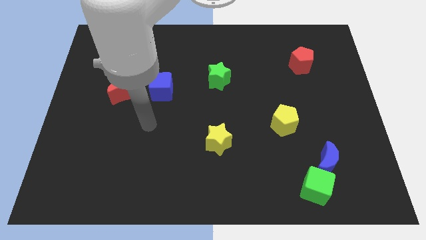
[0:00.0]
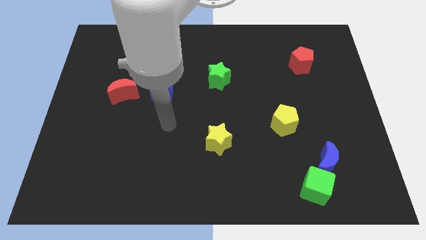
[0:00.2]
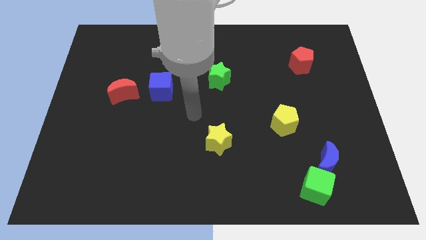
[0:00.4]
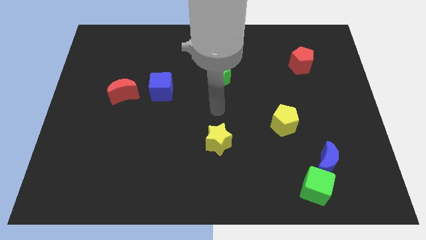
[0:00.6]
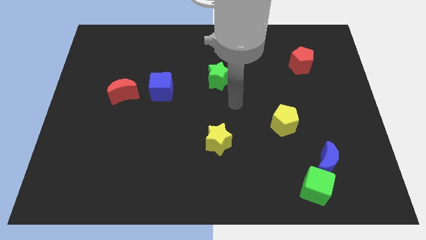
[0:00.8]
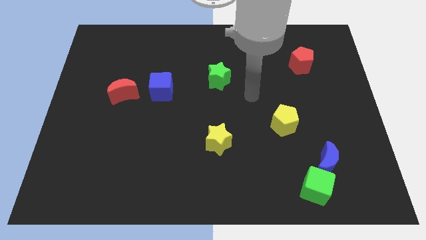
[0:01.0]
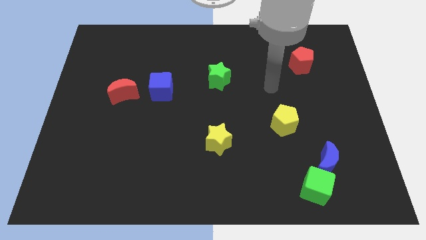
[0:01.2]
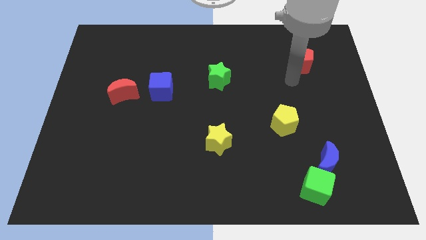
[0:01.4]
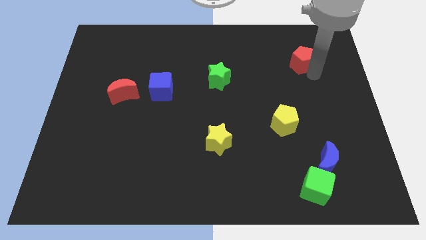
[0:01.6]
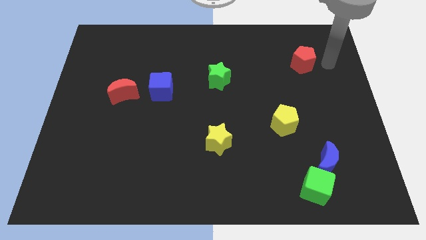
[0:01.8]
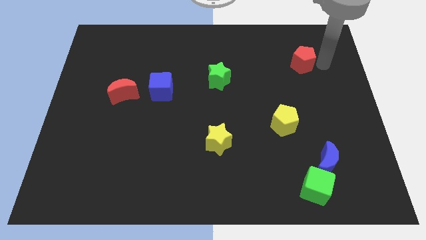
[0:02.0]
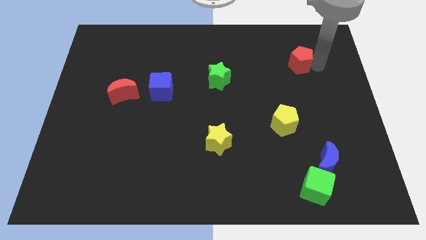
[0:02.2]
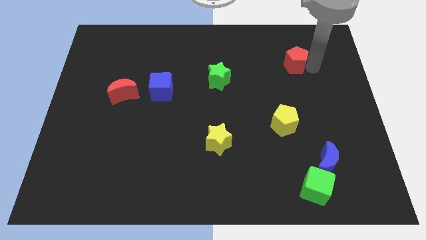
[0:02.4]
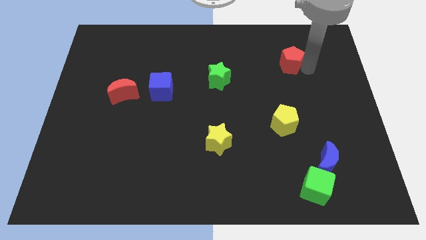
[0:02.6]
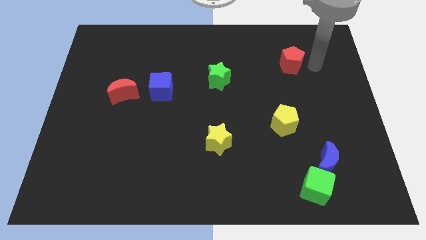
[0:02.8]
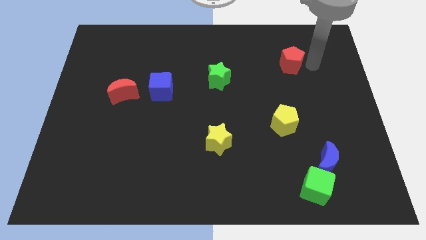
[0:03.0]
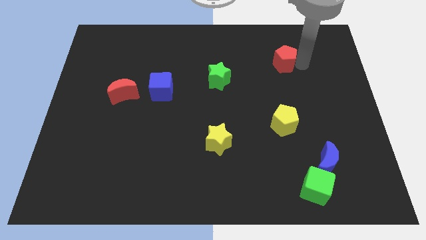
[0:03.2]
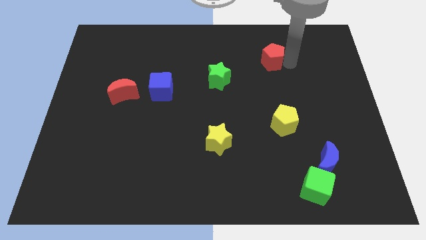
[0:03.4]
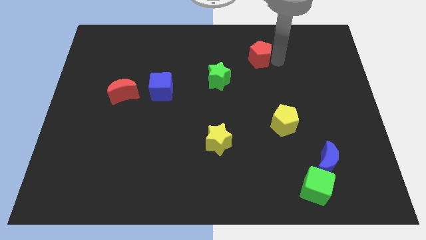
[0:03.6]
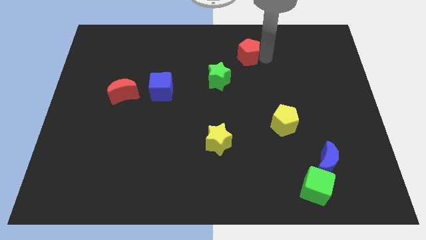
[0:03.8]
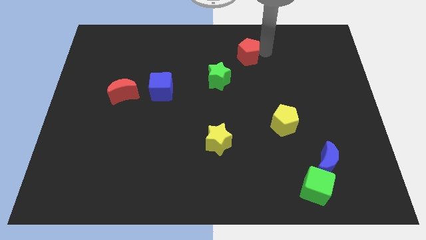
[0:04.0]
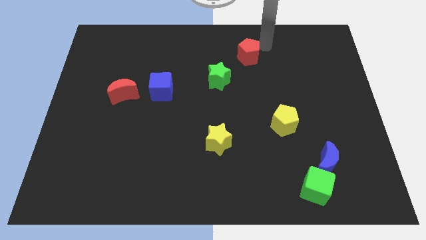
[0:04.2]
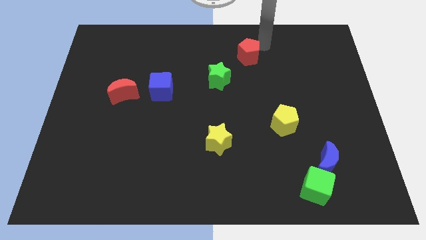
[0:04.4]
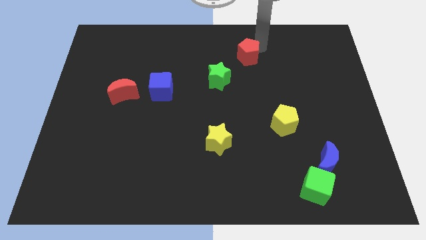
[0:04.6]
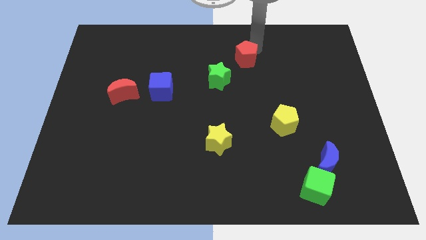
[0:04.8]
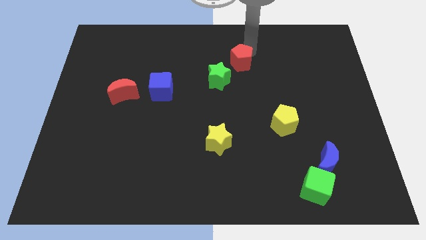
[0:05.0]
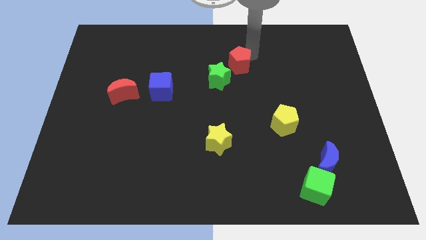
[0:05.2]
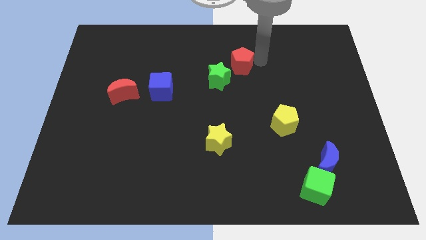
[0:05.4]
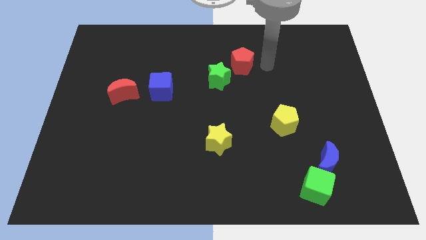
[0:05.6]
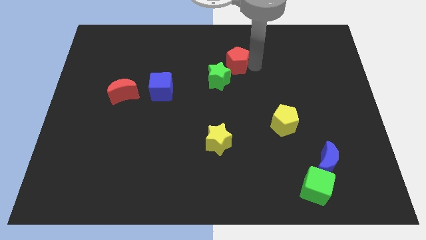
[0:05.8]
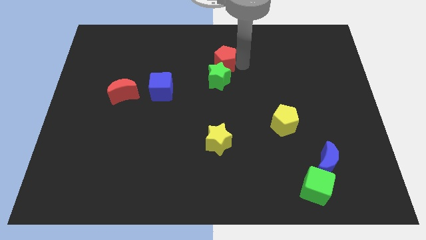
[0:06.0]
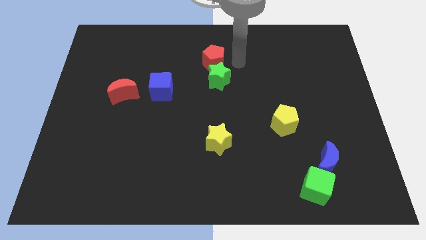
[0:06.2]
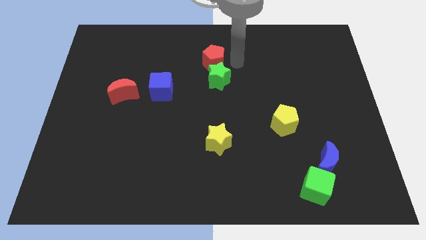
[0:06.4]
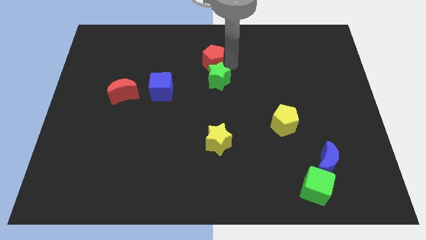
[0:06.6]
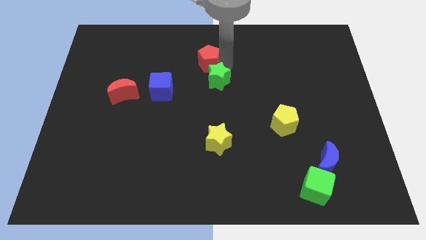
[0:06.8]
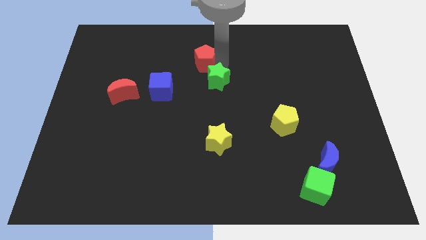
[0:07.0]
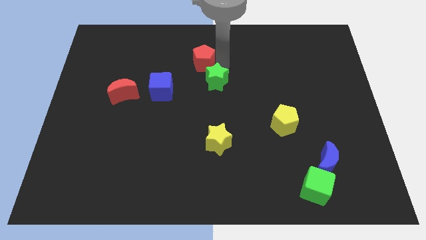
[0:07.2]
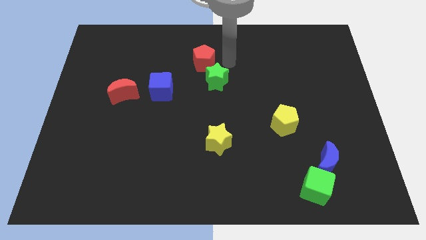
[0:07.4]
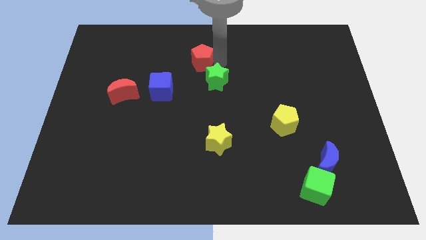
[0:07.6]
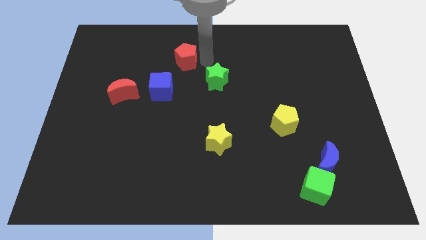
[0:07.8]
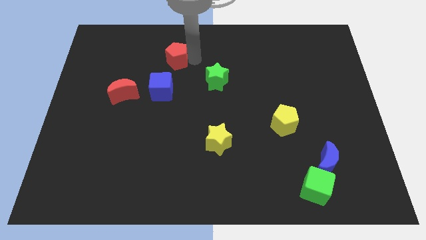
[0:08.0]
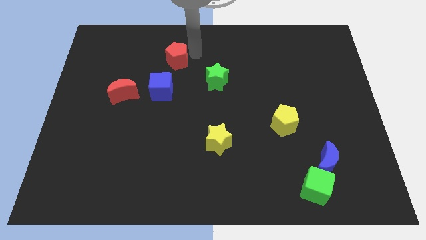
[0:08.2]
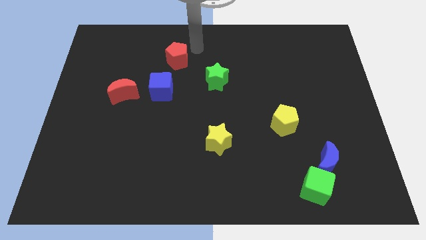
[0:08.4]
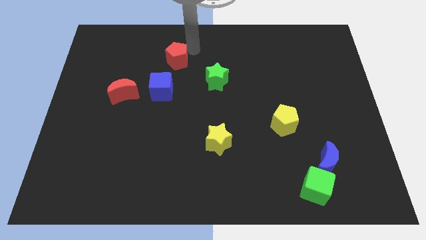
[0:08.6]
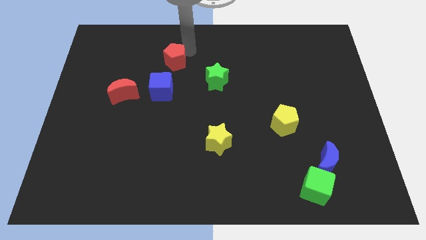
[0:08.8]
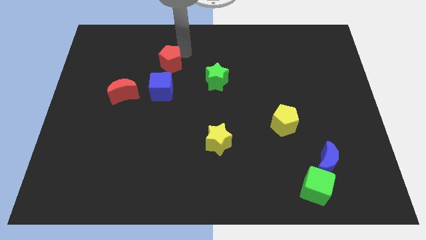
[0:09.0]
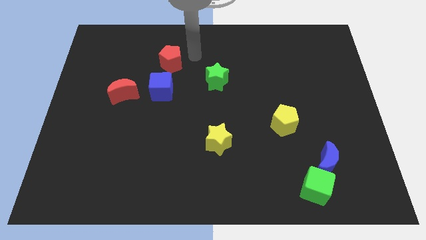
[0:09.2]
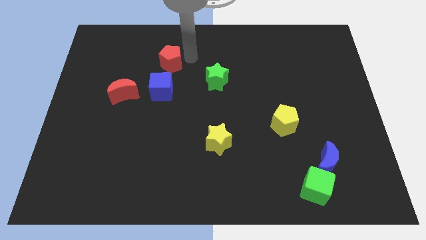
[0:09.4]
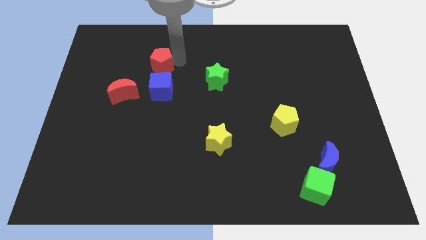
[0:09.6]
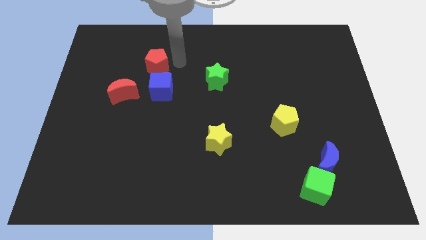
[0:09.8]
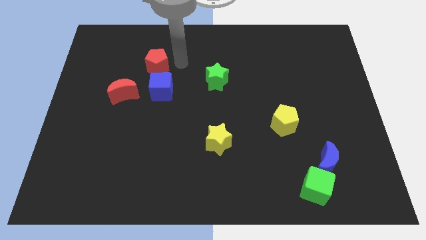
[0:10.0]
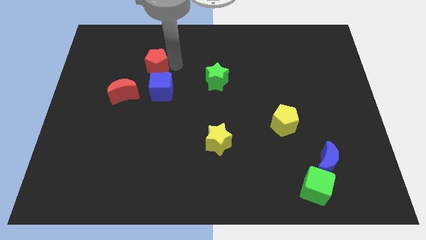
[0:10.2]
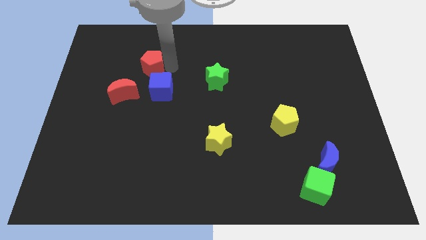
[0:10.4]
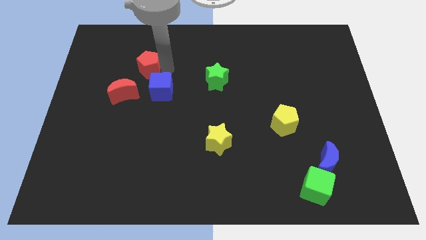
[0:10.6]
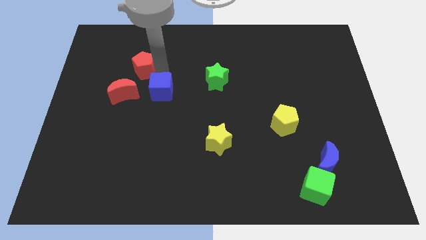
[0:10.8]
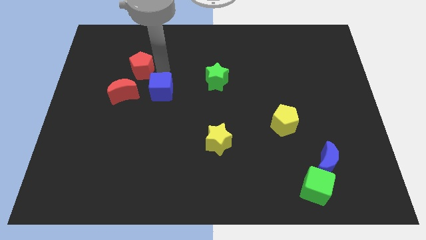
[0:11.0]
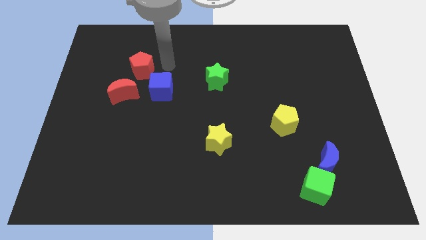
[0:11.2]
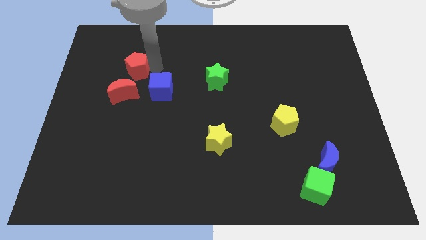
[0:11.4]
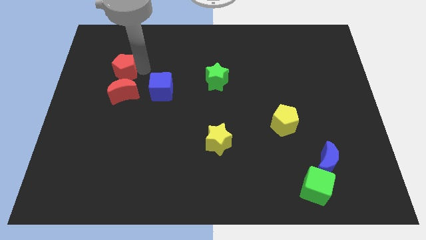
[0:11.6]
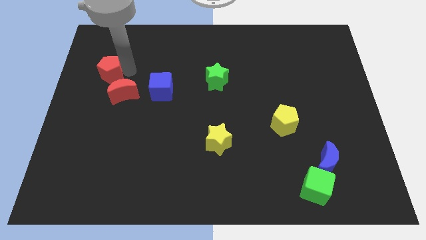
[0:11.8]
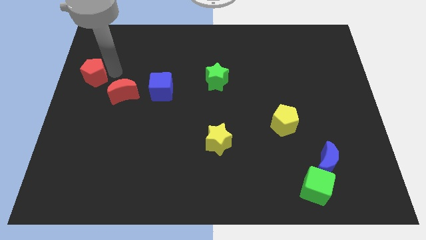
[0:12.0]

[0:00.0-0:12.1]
move the red pentagon to the left side of the board
